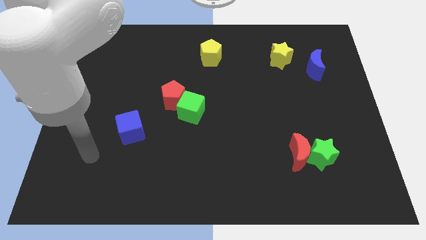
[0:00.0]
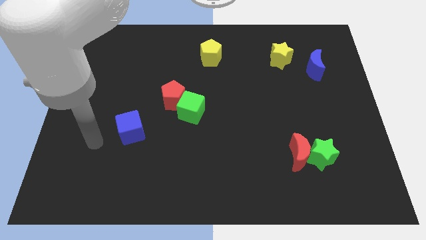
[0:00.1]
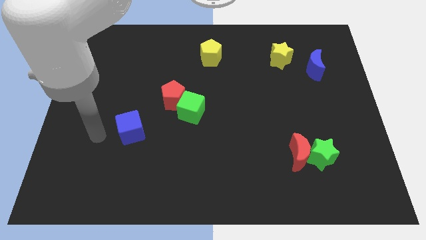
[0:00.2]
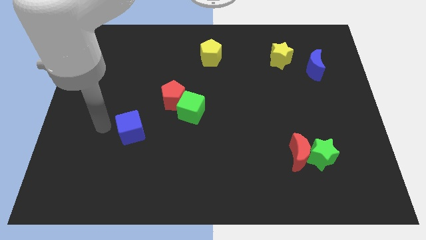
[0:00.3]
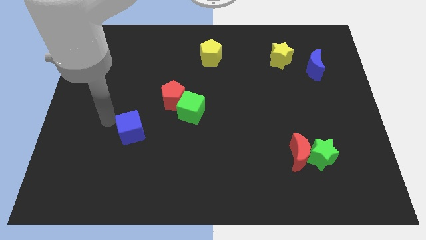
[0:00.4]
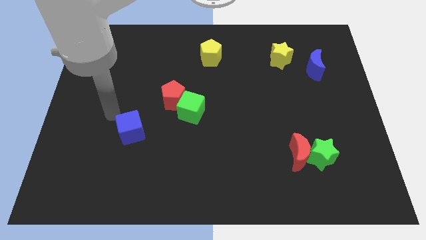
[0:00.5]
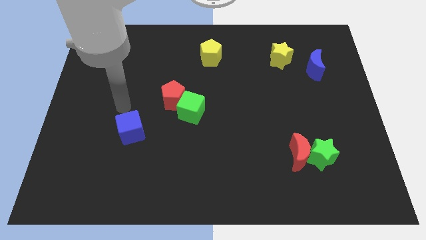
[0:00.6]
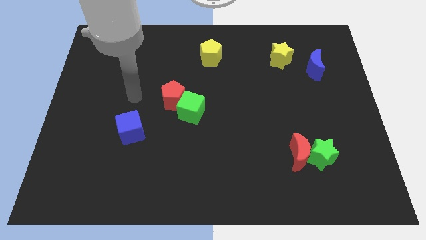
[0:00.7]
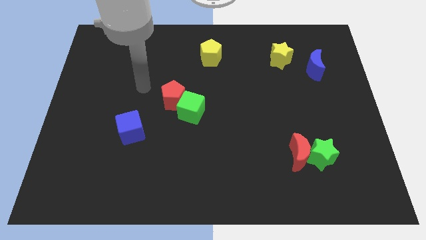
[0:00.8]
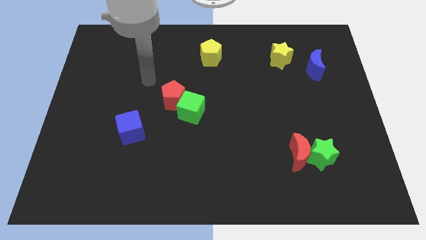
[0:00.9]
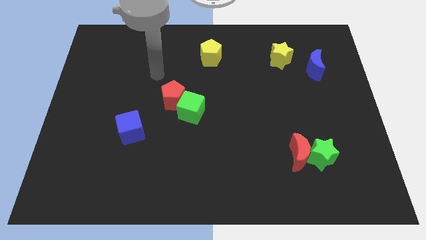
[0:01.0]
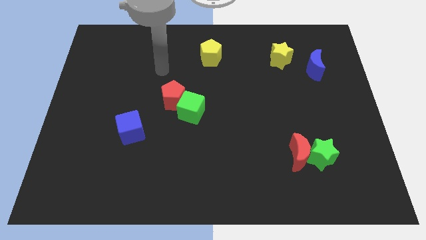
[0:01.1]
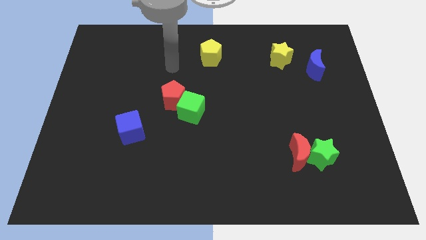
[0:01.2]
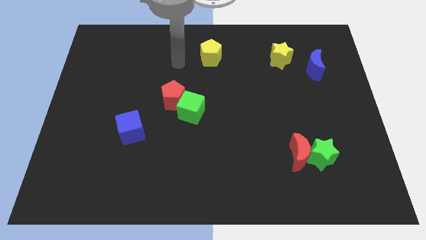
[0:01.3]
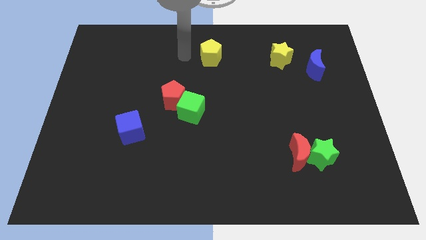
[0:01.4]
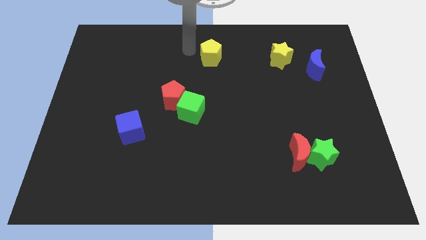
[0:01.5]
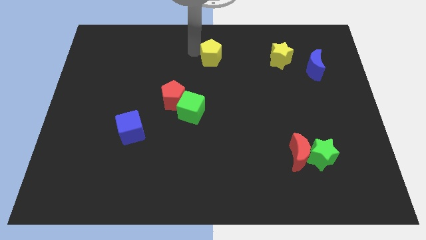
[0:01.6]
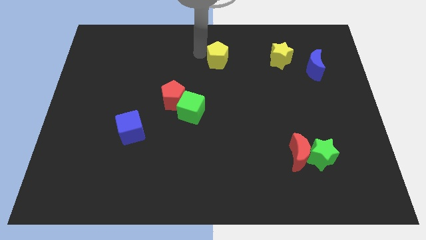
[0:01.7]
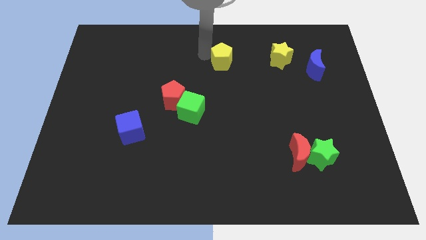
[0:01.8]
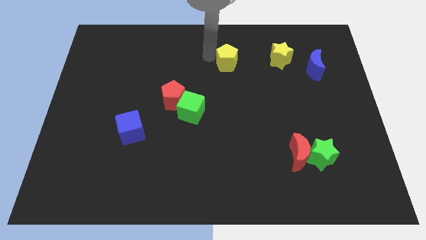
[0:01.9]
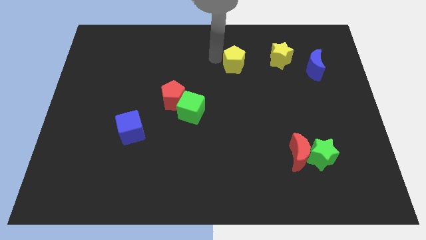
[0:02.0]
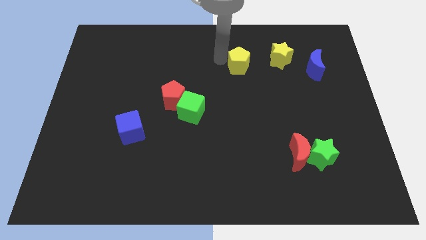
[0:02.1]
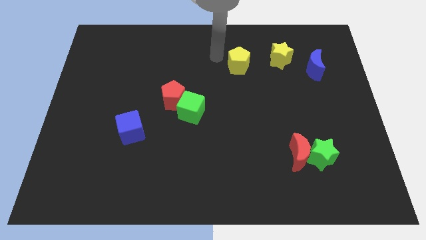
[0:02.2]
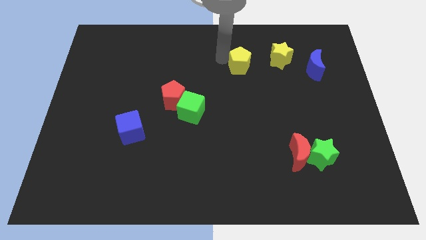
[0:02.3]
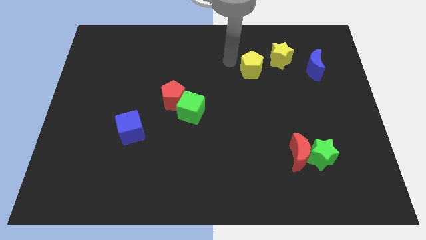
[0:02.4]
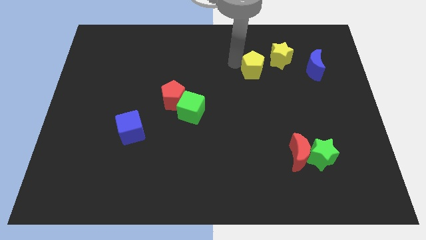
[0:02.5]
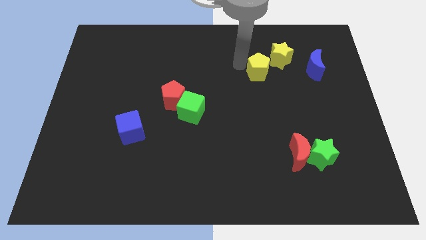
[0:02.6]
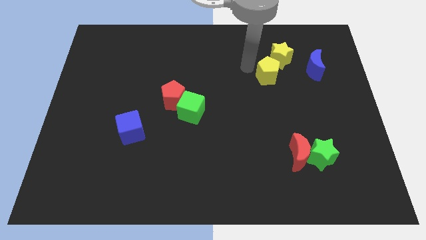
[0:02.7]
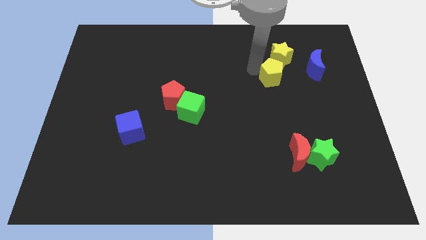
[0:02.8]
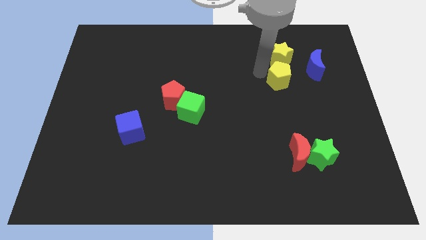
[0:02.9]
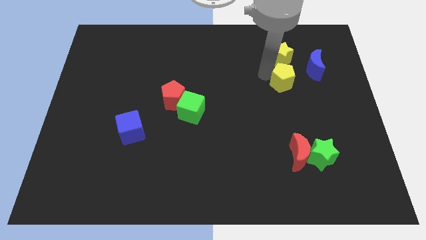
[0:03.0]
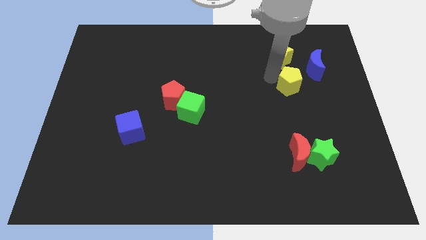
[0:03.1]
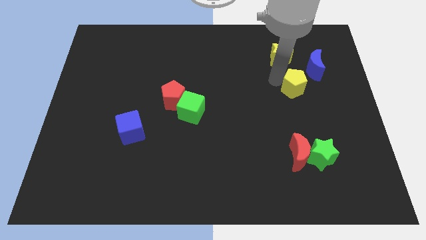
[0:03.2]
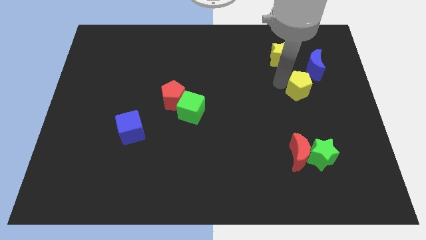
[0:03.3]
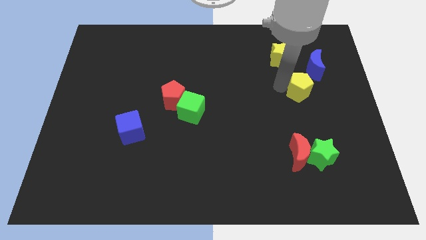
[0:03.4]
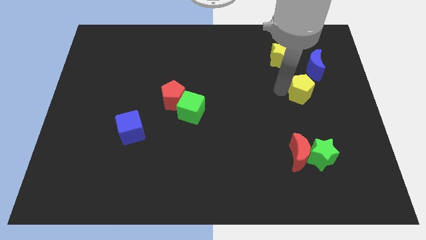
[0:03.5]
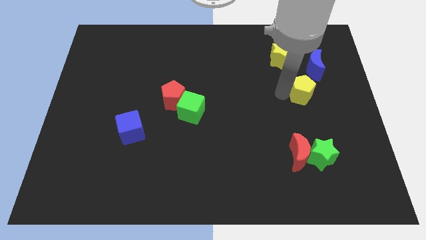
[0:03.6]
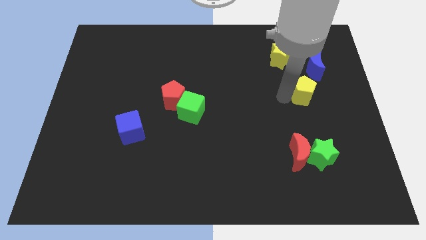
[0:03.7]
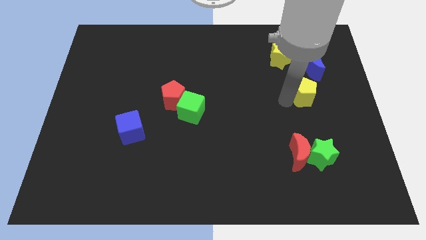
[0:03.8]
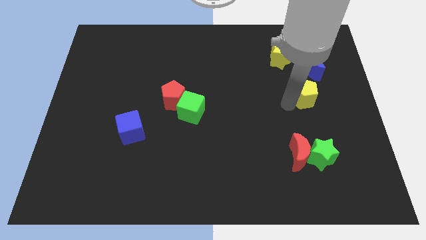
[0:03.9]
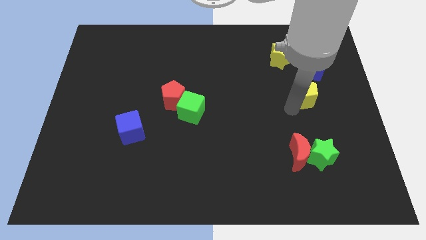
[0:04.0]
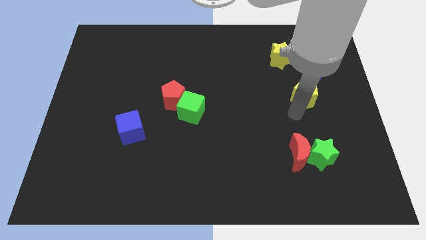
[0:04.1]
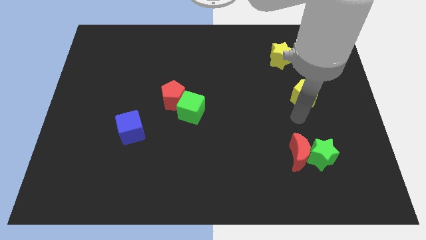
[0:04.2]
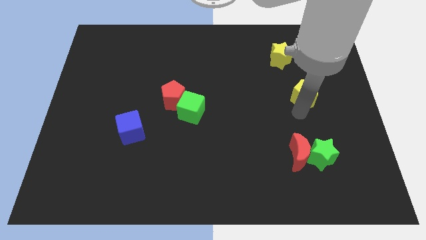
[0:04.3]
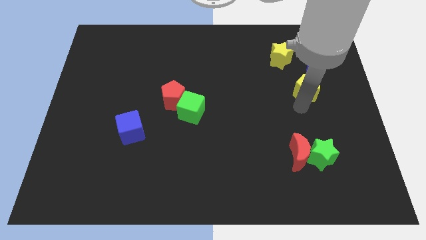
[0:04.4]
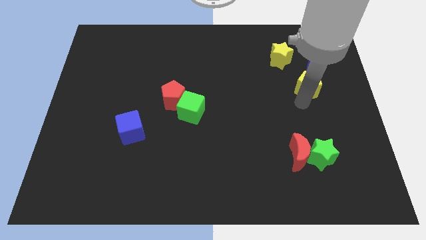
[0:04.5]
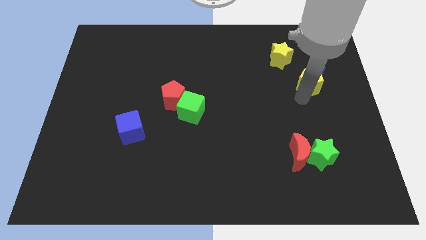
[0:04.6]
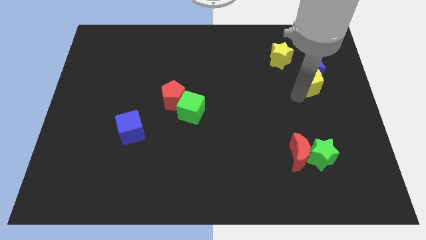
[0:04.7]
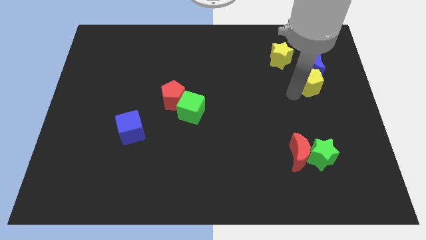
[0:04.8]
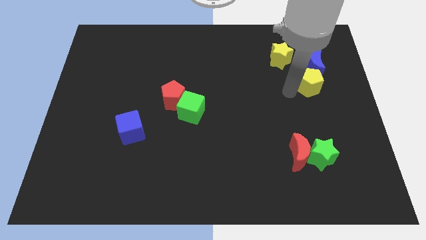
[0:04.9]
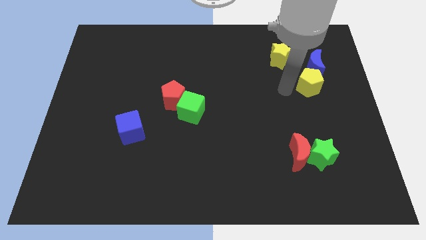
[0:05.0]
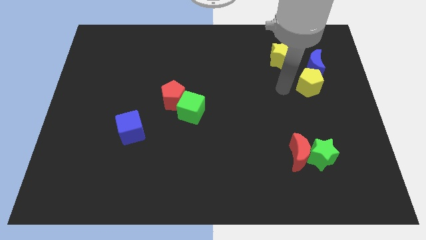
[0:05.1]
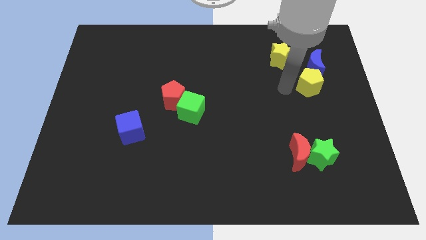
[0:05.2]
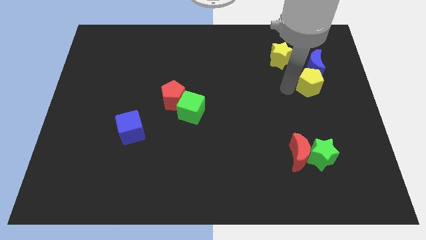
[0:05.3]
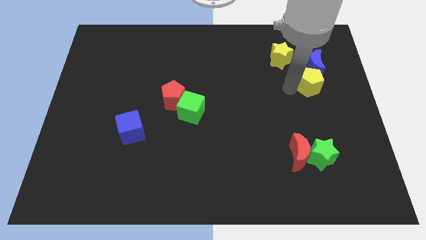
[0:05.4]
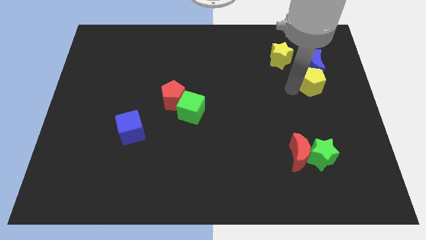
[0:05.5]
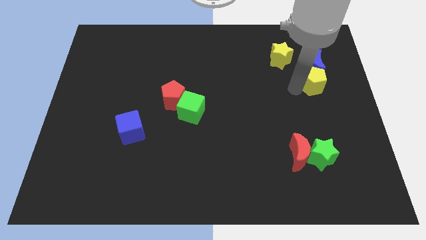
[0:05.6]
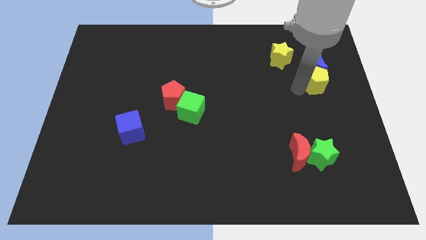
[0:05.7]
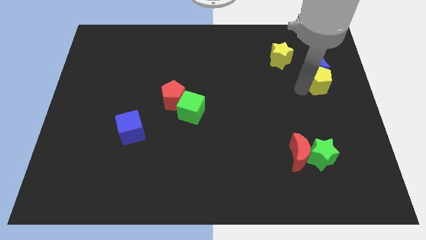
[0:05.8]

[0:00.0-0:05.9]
put the yellow pentagon to the center right

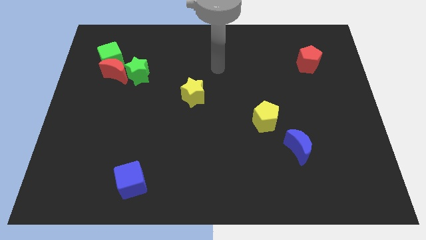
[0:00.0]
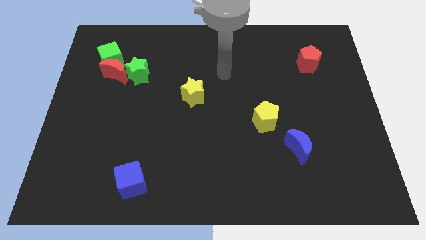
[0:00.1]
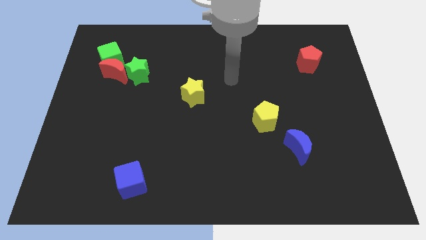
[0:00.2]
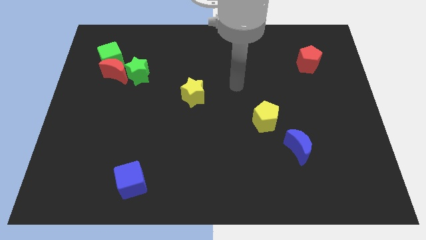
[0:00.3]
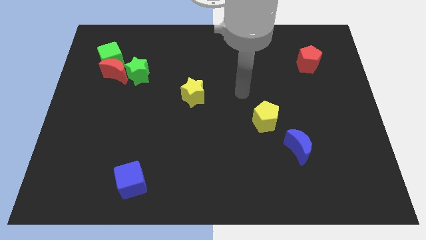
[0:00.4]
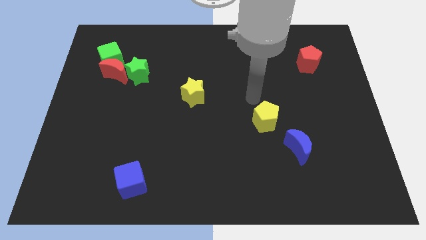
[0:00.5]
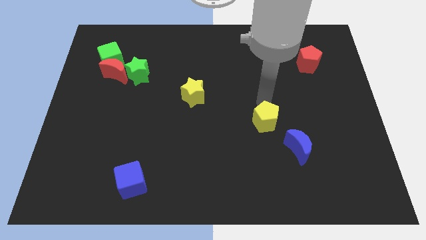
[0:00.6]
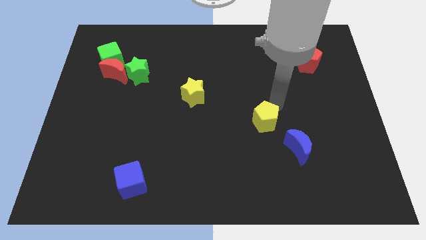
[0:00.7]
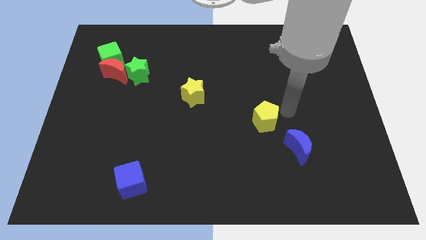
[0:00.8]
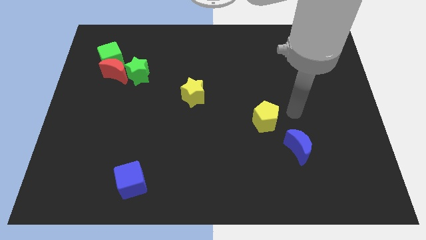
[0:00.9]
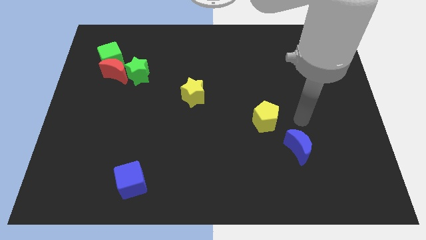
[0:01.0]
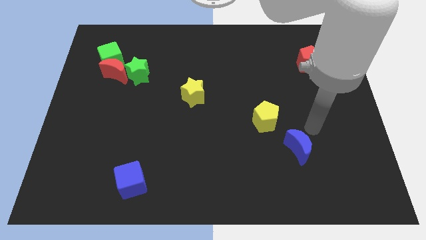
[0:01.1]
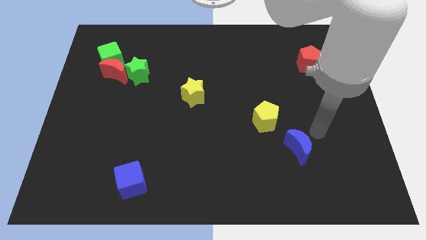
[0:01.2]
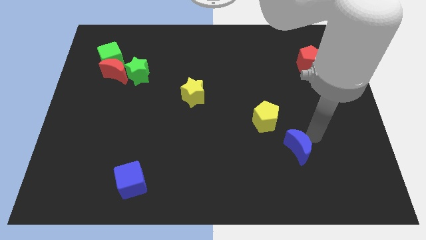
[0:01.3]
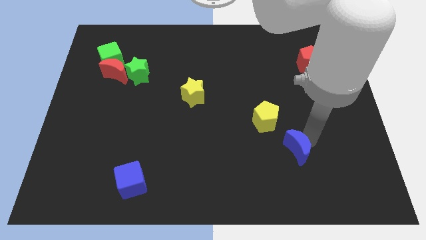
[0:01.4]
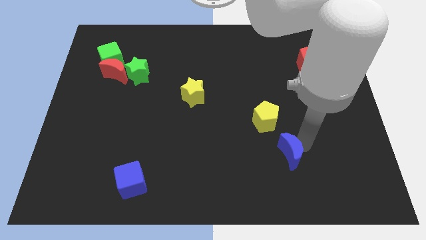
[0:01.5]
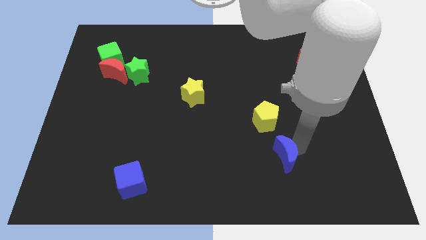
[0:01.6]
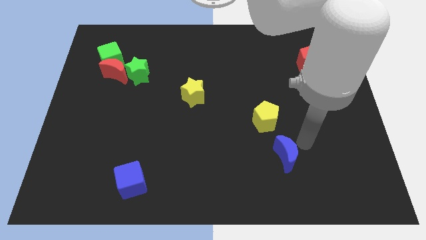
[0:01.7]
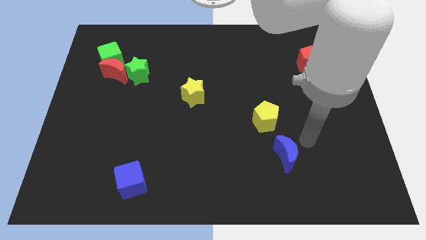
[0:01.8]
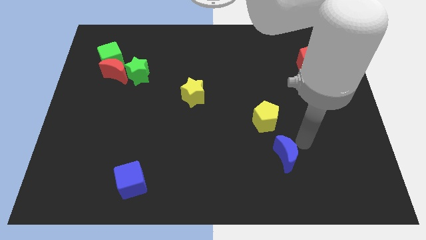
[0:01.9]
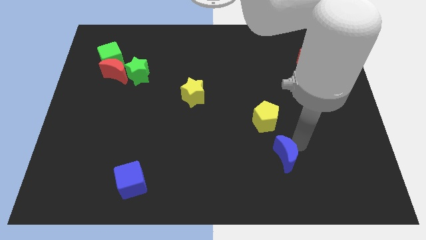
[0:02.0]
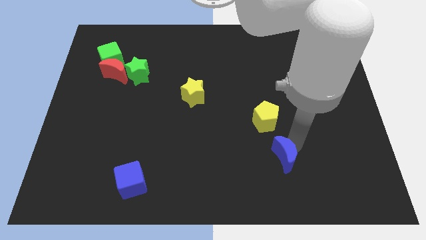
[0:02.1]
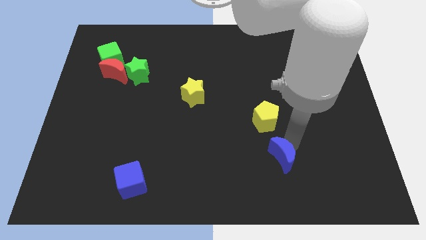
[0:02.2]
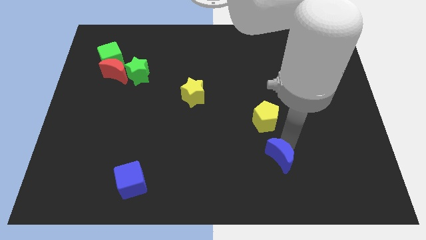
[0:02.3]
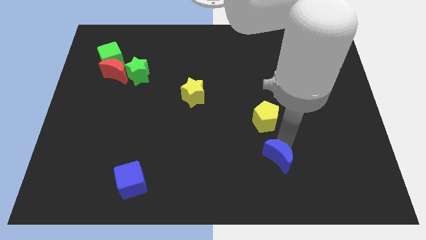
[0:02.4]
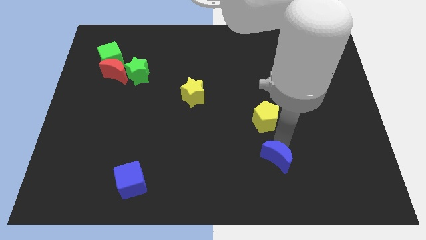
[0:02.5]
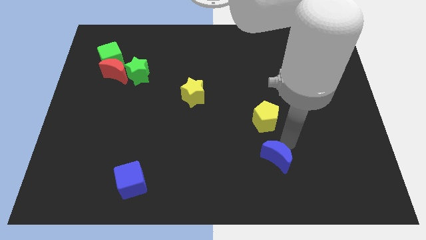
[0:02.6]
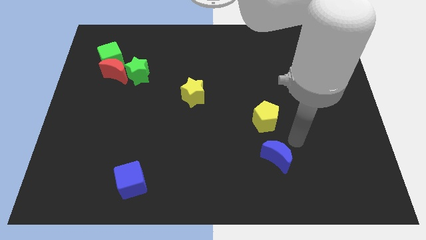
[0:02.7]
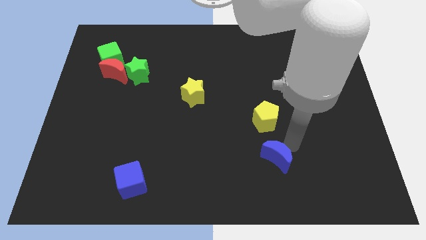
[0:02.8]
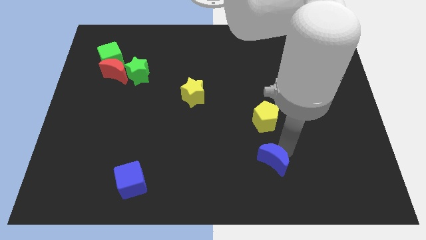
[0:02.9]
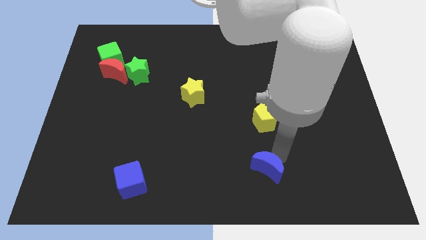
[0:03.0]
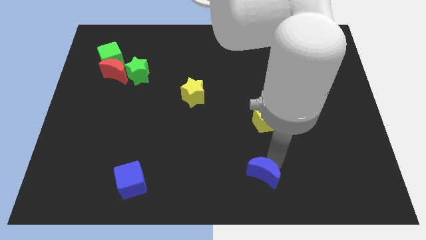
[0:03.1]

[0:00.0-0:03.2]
push the blue moon to the bottom
